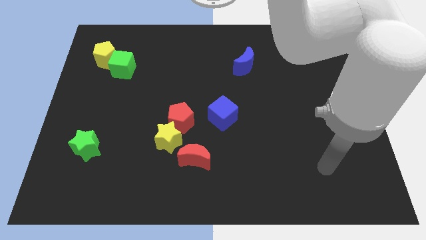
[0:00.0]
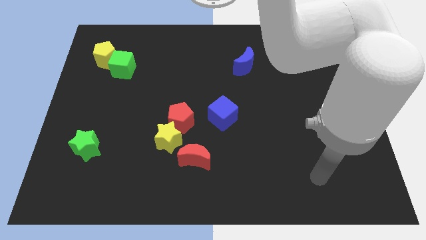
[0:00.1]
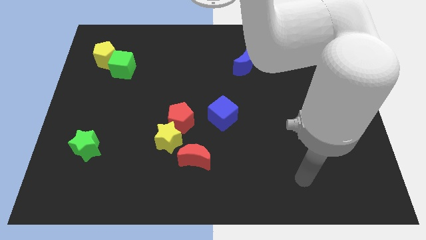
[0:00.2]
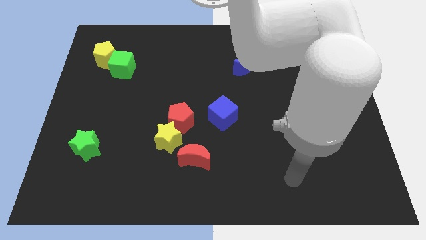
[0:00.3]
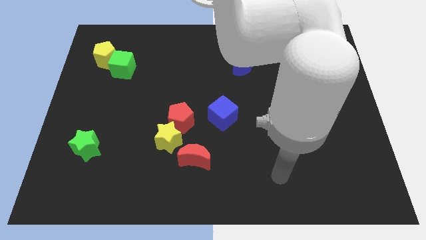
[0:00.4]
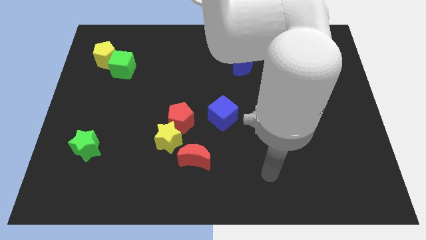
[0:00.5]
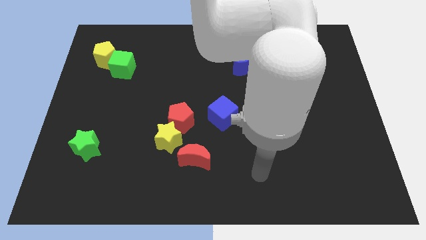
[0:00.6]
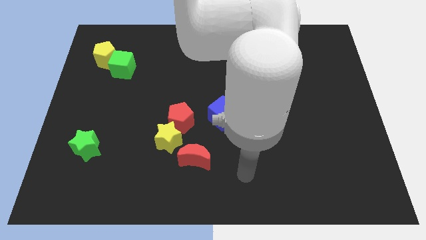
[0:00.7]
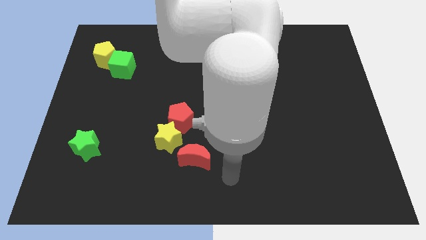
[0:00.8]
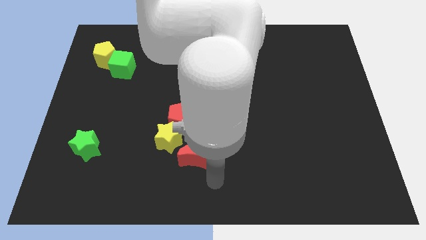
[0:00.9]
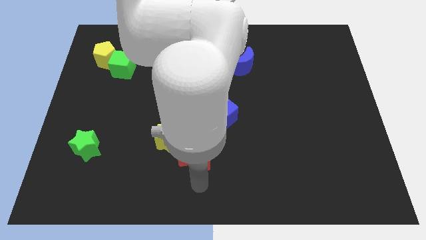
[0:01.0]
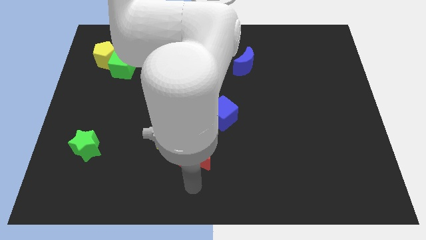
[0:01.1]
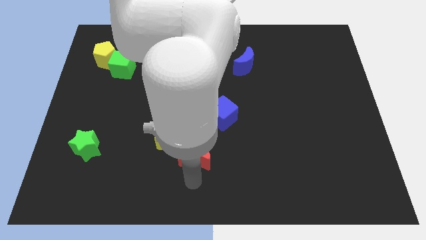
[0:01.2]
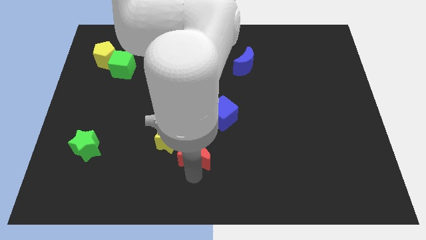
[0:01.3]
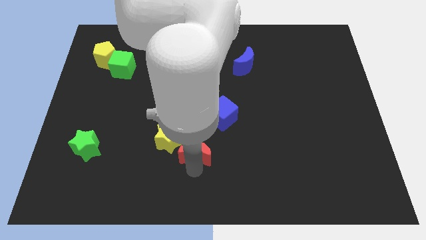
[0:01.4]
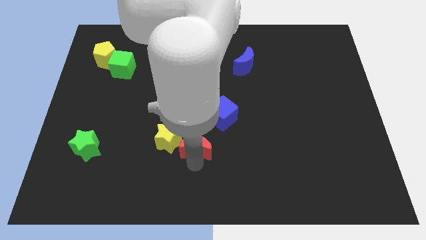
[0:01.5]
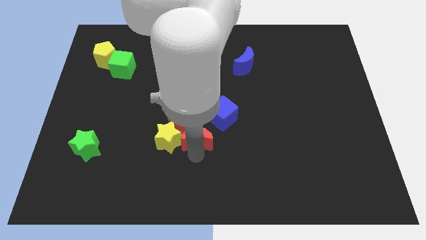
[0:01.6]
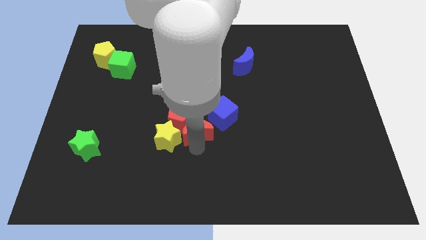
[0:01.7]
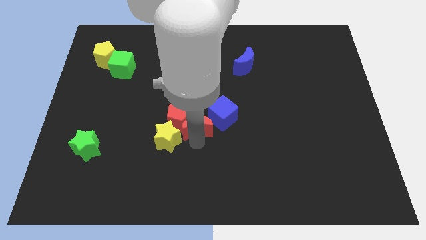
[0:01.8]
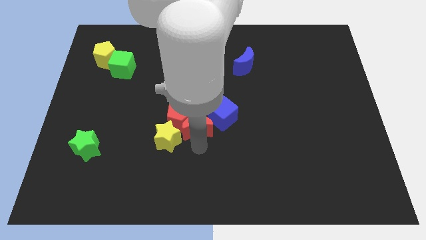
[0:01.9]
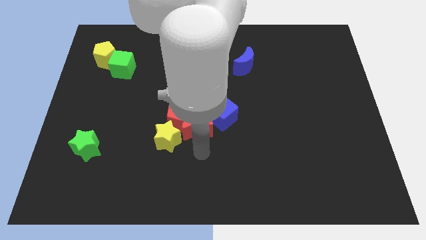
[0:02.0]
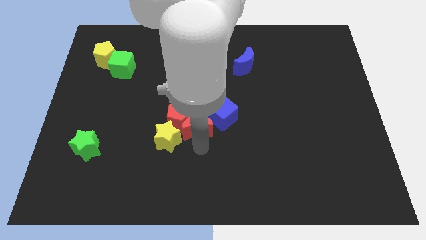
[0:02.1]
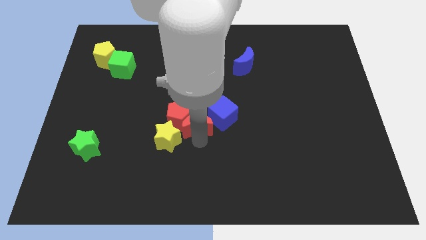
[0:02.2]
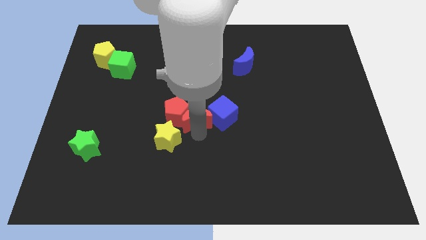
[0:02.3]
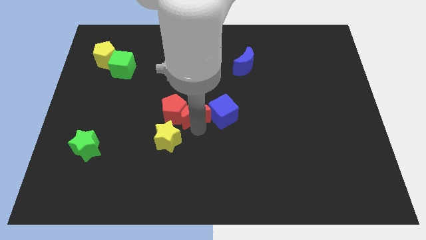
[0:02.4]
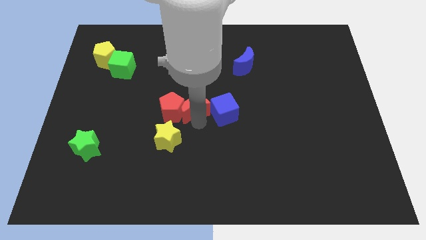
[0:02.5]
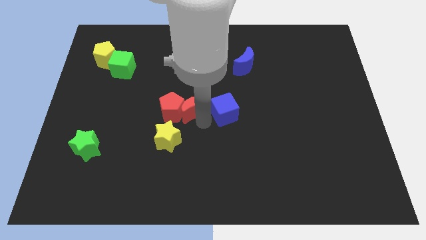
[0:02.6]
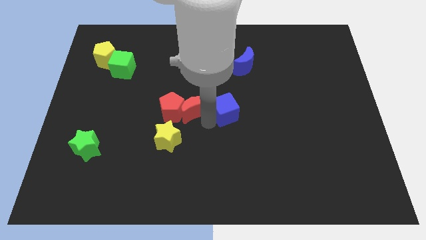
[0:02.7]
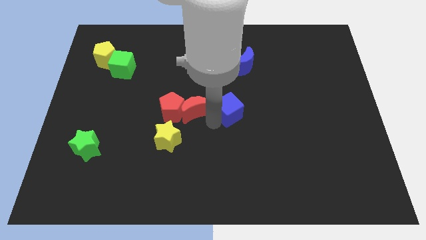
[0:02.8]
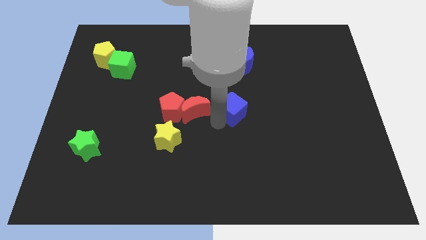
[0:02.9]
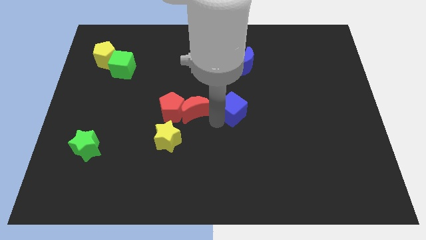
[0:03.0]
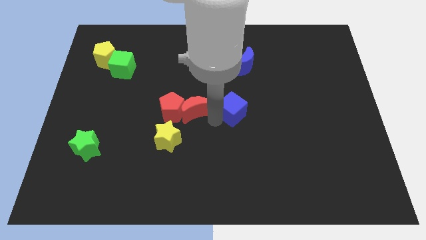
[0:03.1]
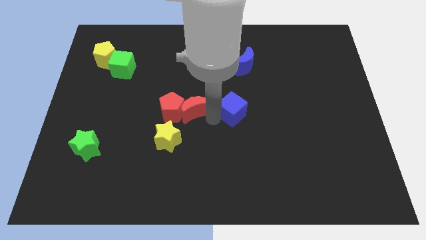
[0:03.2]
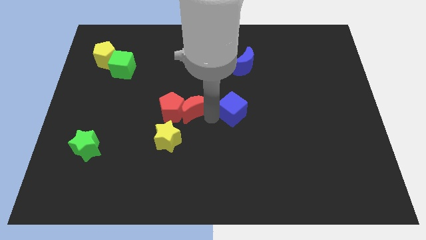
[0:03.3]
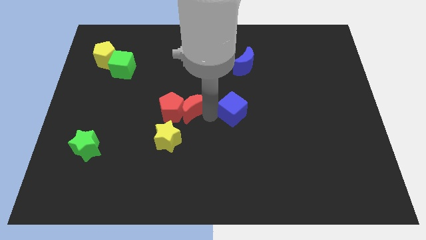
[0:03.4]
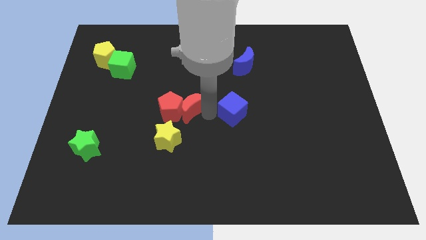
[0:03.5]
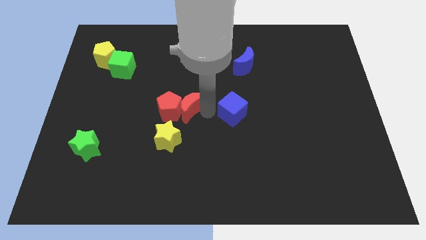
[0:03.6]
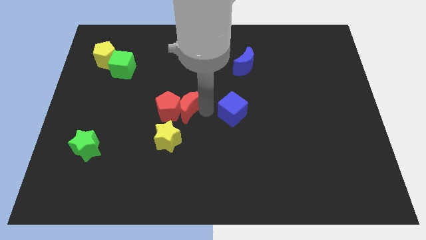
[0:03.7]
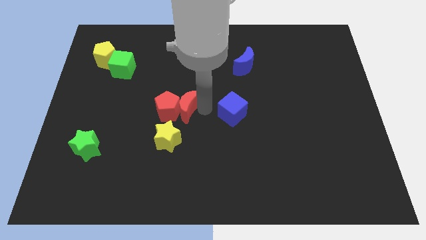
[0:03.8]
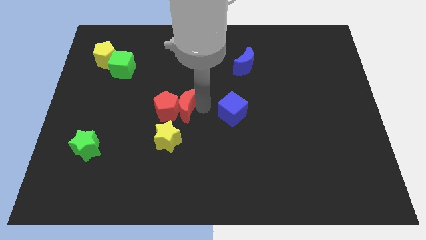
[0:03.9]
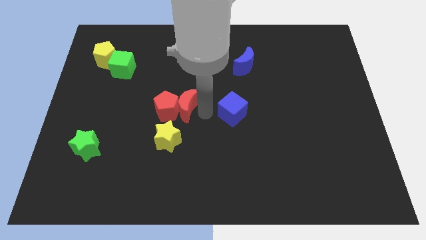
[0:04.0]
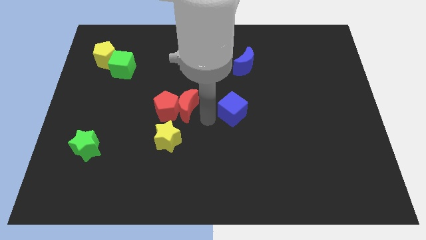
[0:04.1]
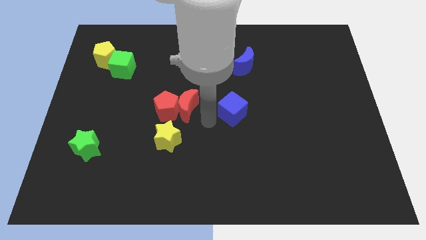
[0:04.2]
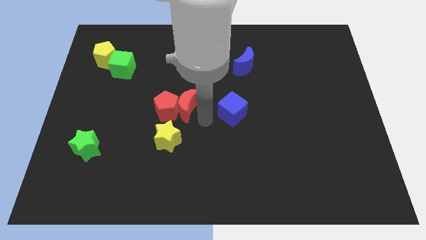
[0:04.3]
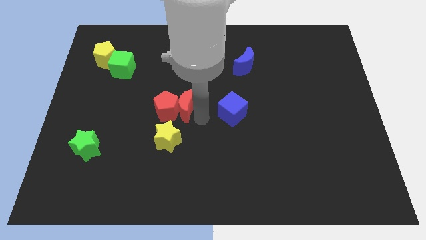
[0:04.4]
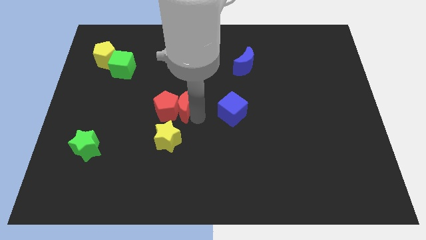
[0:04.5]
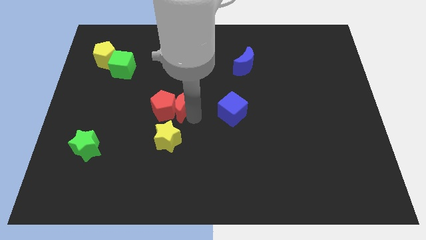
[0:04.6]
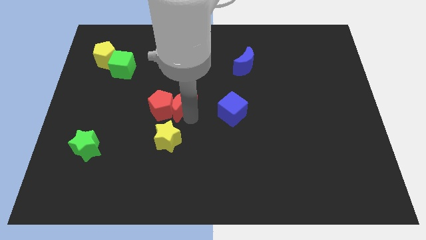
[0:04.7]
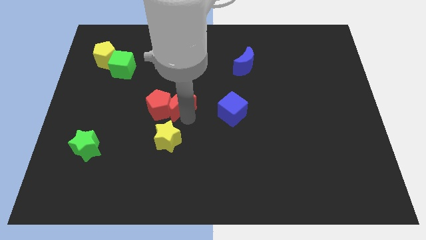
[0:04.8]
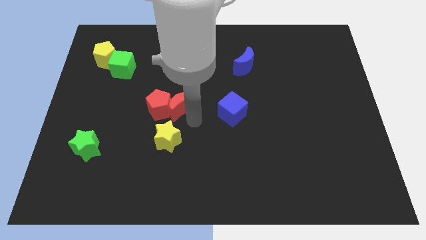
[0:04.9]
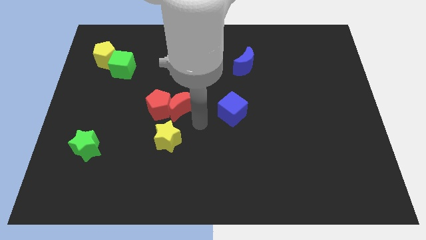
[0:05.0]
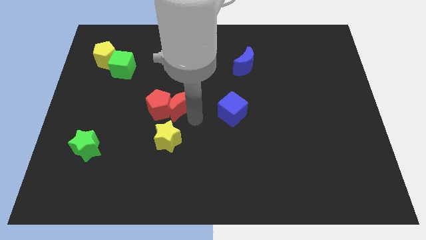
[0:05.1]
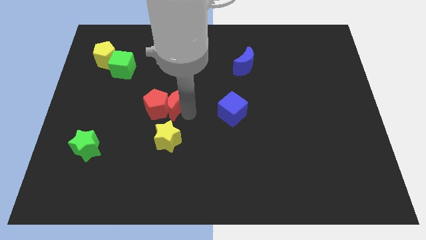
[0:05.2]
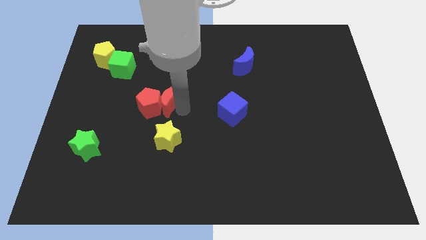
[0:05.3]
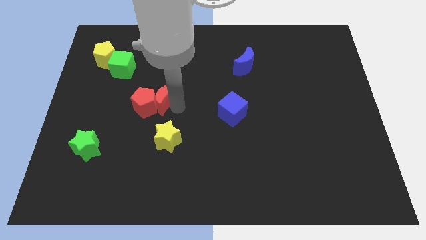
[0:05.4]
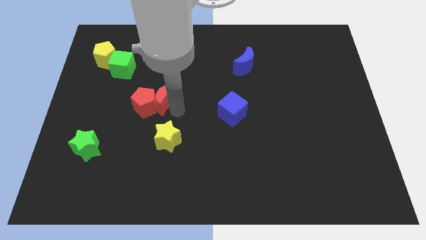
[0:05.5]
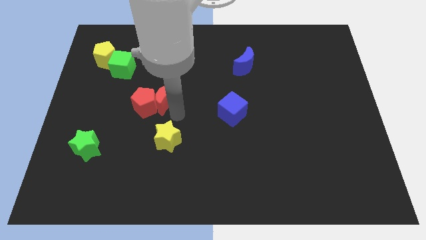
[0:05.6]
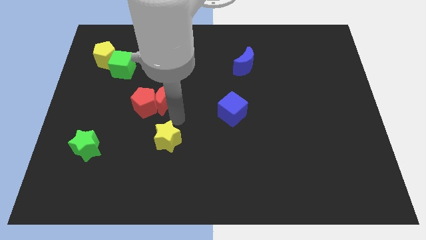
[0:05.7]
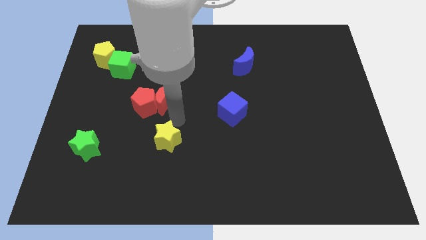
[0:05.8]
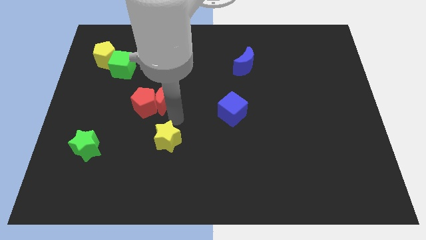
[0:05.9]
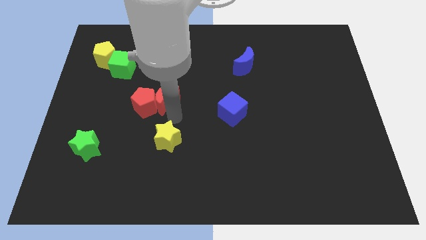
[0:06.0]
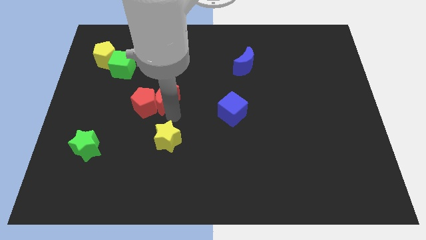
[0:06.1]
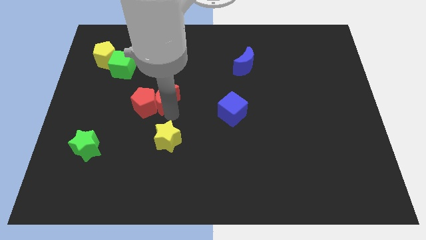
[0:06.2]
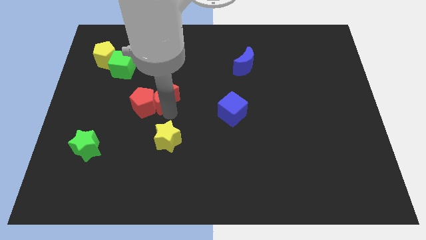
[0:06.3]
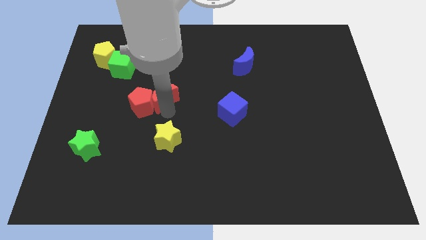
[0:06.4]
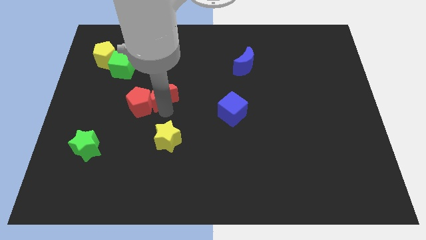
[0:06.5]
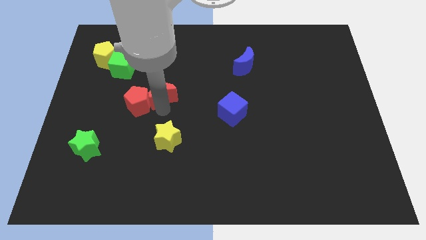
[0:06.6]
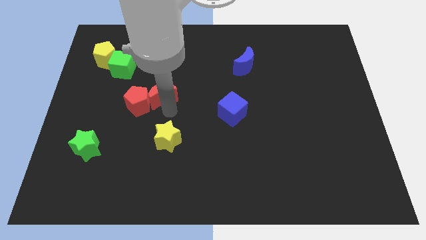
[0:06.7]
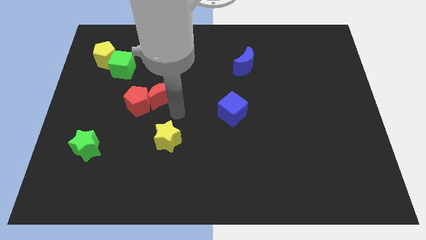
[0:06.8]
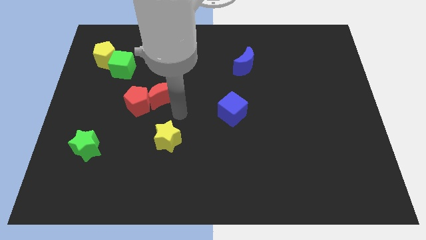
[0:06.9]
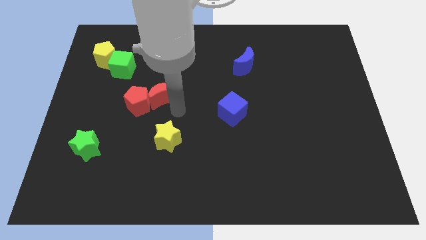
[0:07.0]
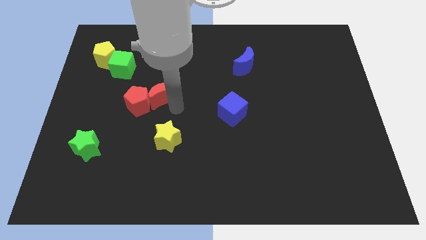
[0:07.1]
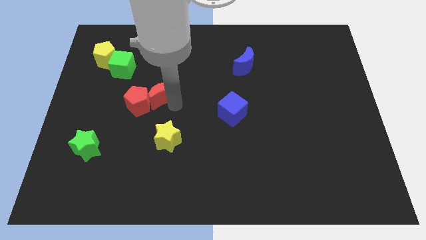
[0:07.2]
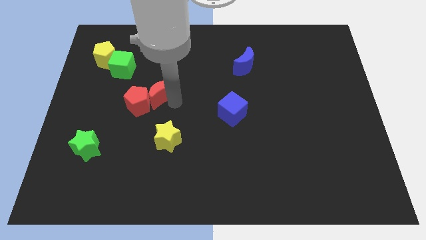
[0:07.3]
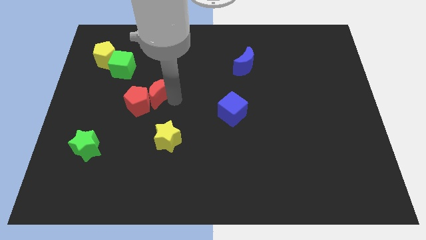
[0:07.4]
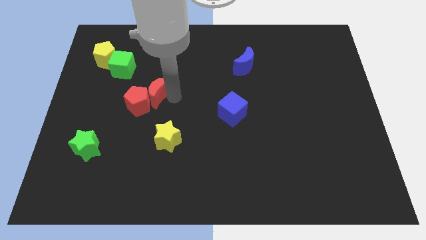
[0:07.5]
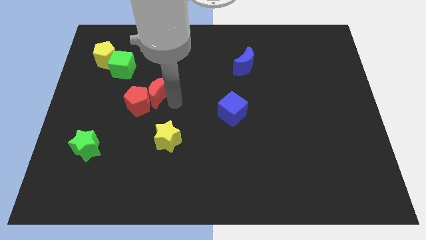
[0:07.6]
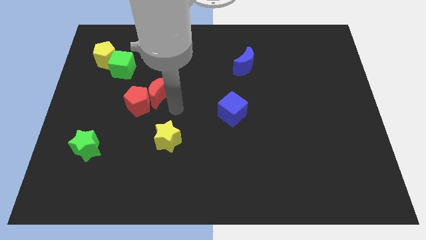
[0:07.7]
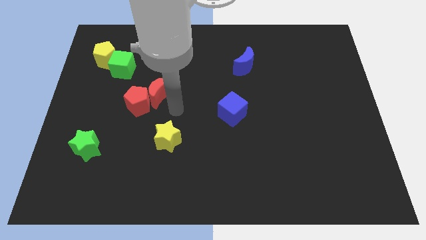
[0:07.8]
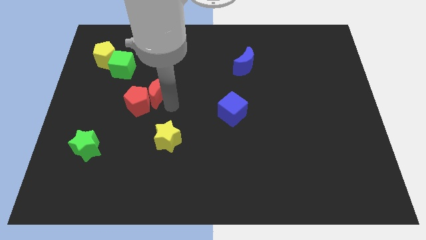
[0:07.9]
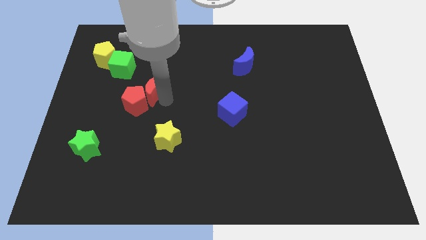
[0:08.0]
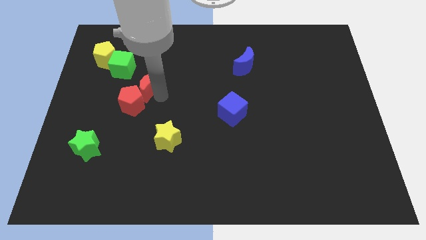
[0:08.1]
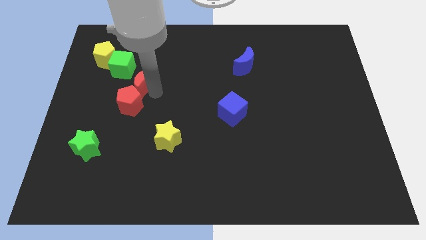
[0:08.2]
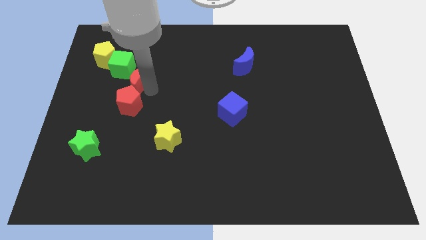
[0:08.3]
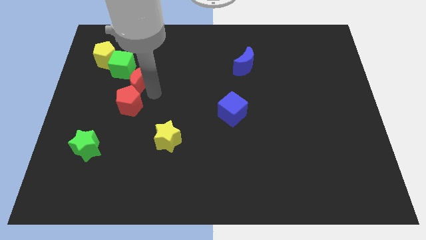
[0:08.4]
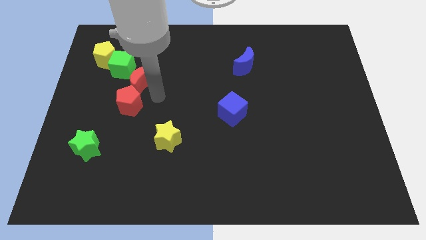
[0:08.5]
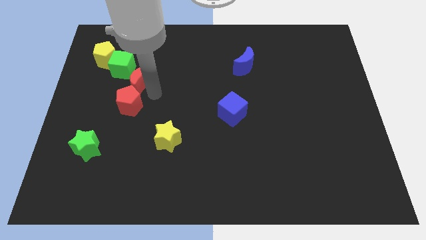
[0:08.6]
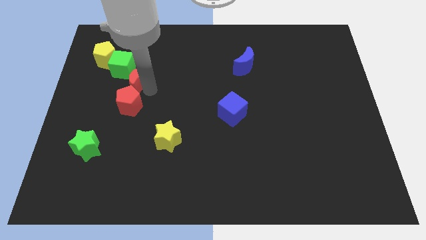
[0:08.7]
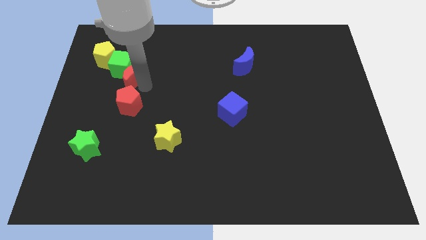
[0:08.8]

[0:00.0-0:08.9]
slide the red moon next to the green cube
